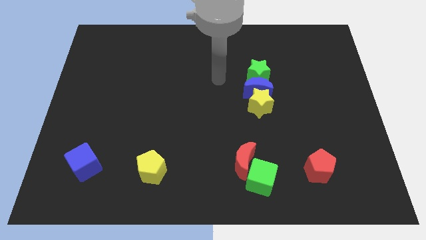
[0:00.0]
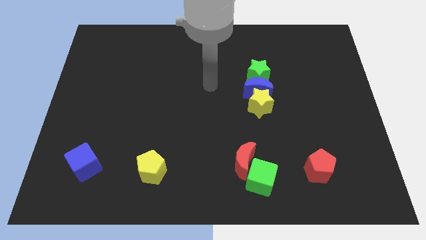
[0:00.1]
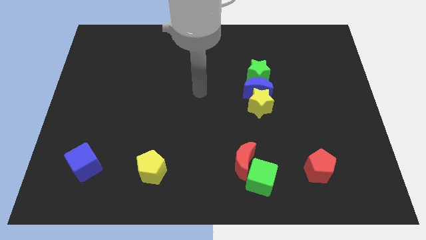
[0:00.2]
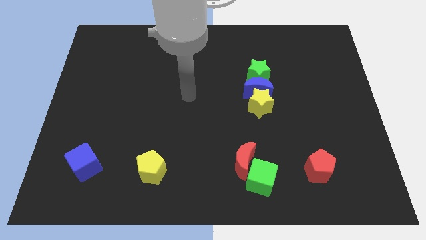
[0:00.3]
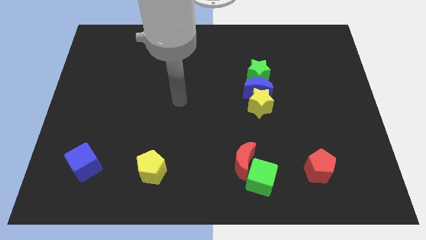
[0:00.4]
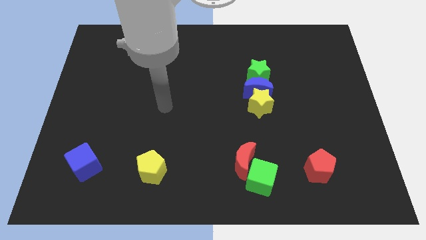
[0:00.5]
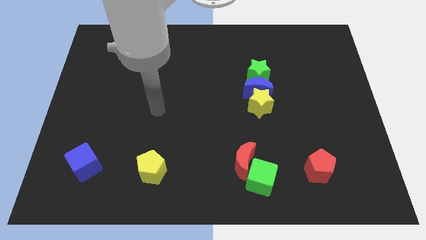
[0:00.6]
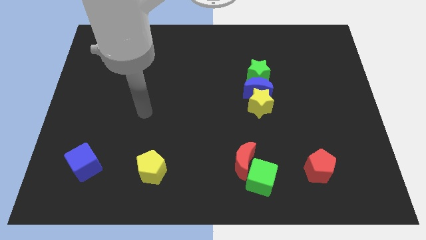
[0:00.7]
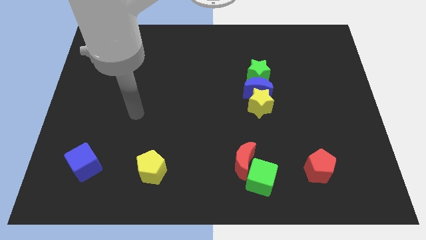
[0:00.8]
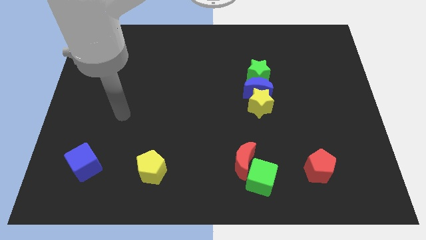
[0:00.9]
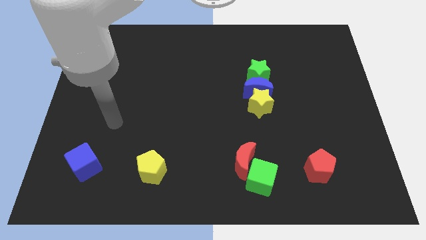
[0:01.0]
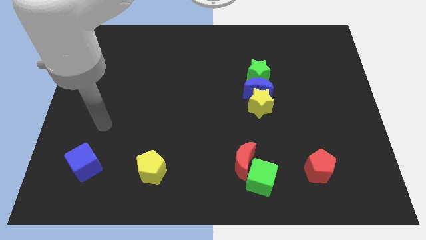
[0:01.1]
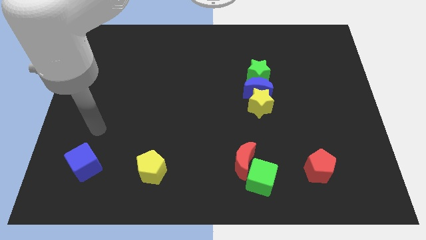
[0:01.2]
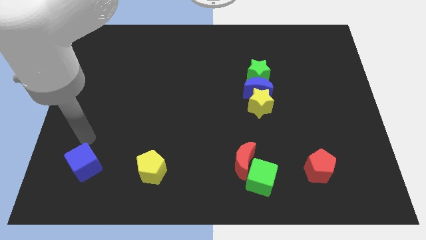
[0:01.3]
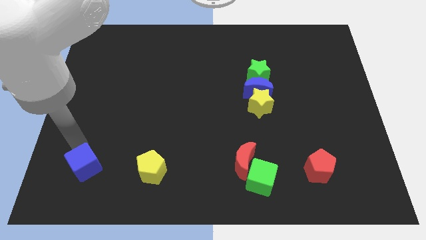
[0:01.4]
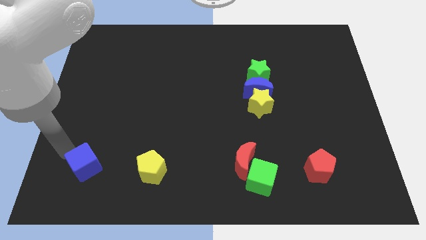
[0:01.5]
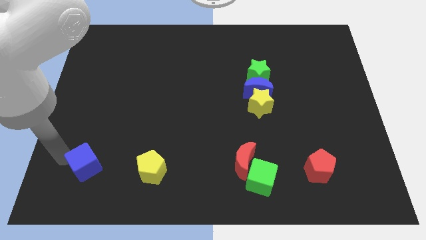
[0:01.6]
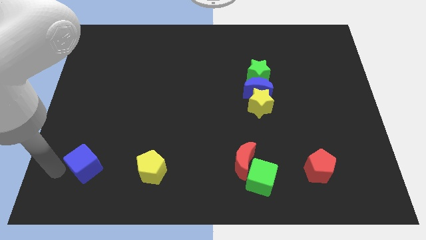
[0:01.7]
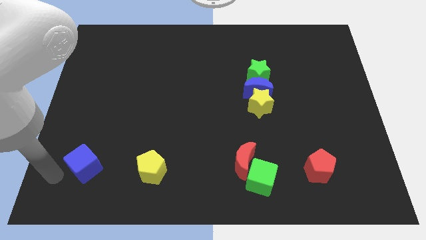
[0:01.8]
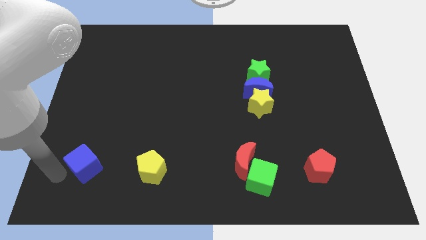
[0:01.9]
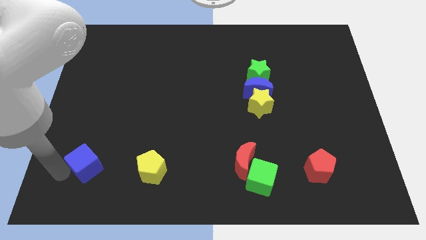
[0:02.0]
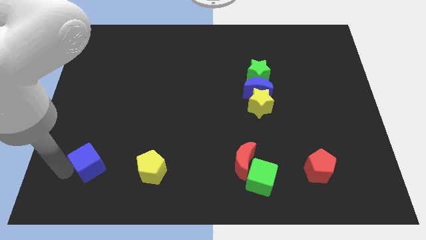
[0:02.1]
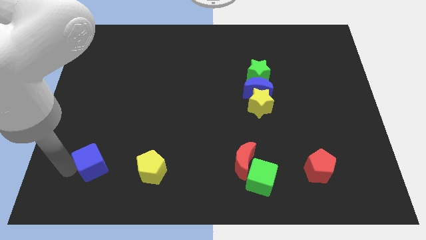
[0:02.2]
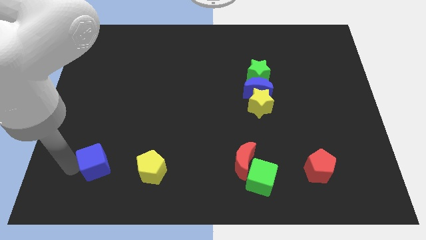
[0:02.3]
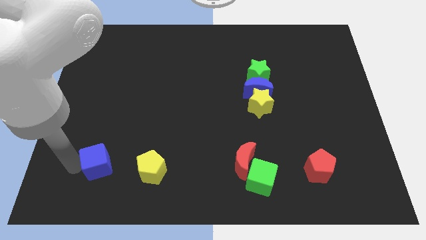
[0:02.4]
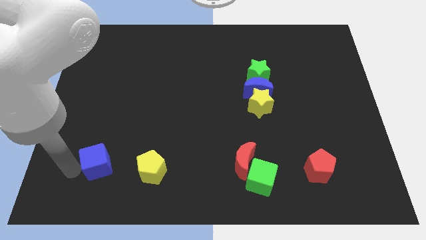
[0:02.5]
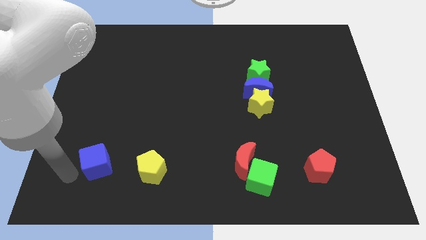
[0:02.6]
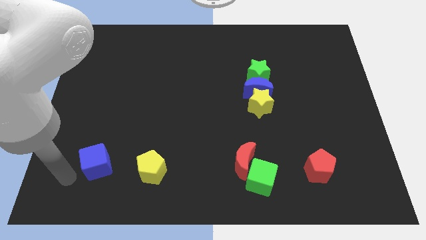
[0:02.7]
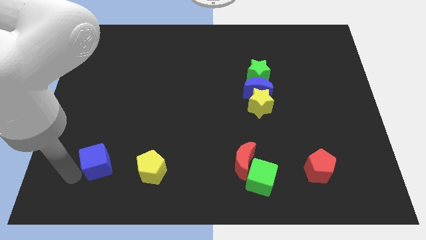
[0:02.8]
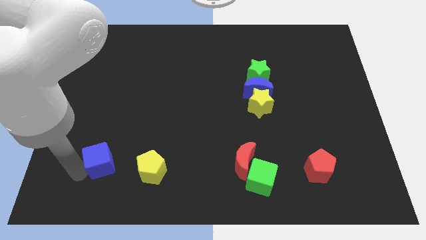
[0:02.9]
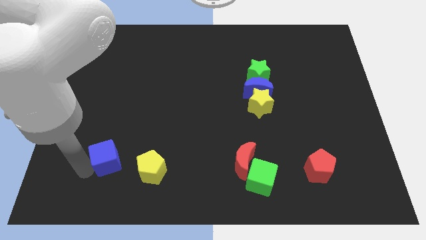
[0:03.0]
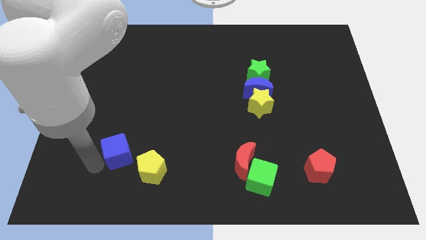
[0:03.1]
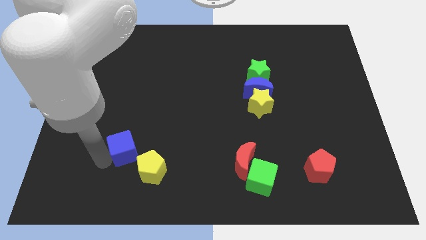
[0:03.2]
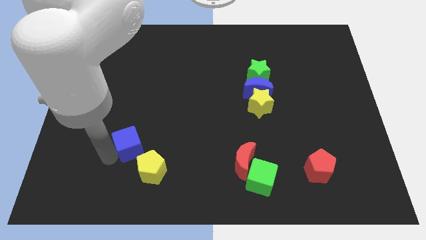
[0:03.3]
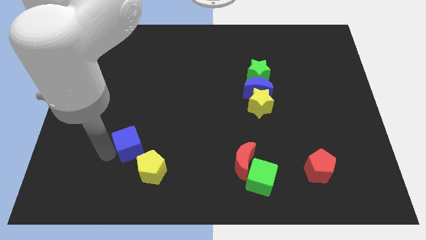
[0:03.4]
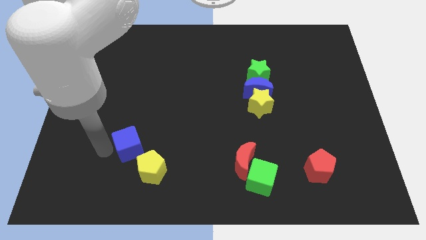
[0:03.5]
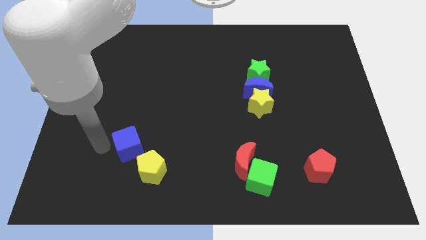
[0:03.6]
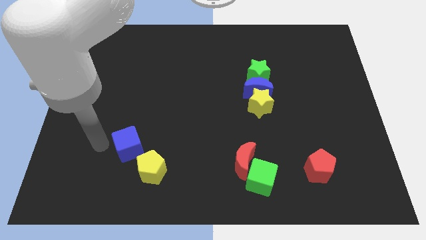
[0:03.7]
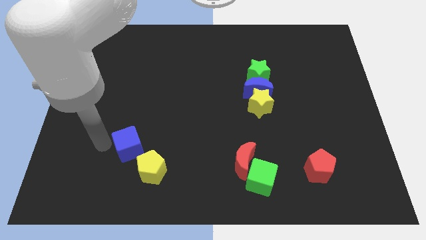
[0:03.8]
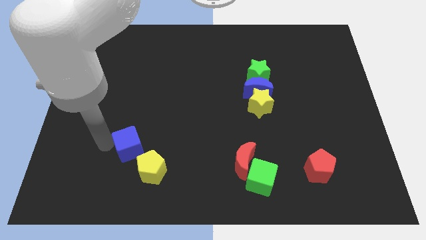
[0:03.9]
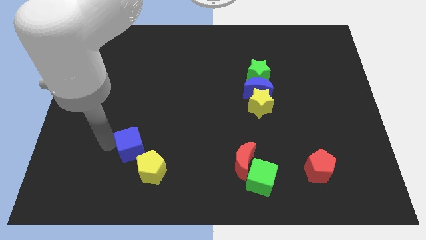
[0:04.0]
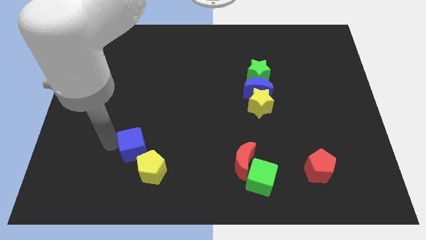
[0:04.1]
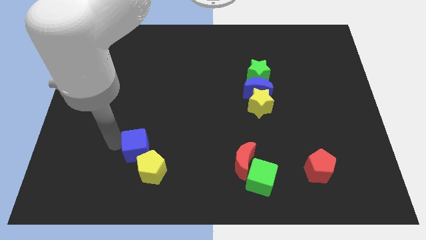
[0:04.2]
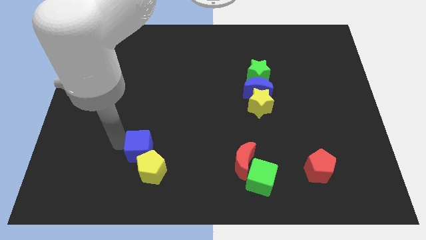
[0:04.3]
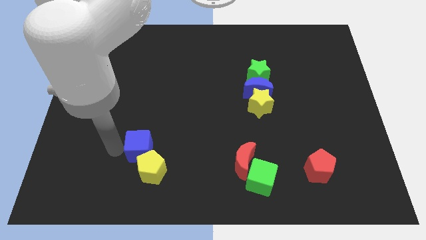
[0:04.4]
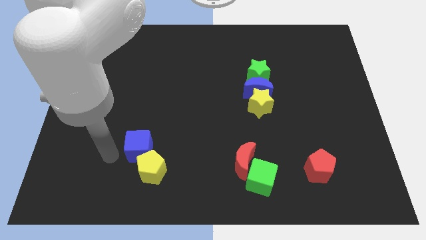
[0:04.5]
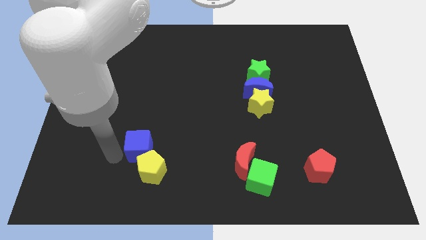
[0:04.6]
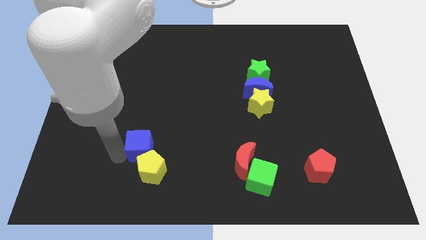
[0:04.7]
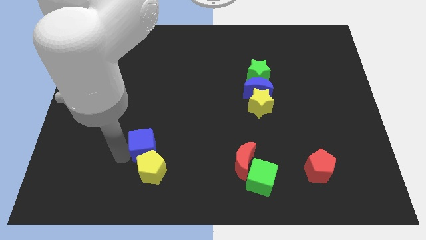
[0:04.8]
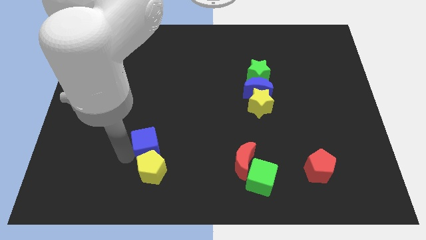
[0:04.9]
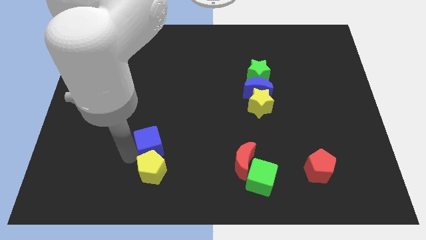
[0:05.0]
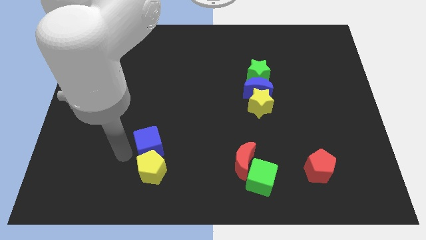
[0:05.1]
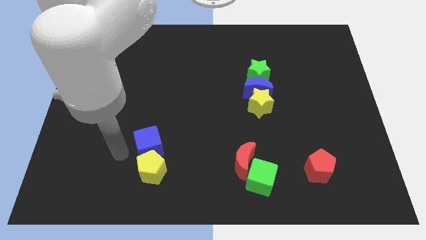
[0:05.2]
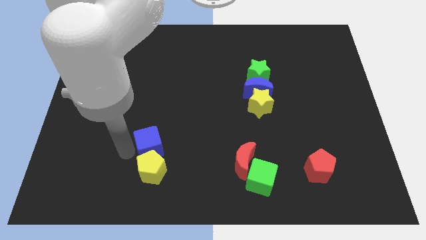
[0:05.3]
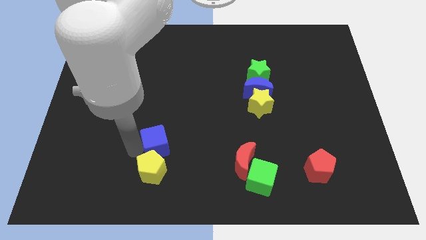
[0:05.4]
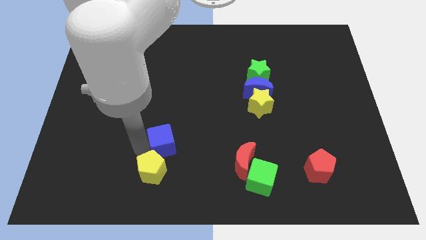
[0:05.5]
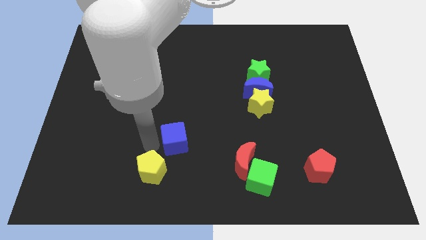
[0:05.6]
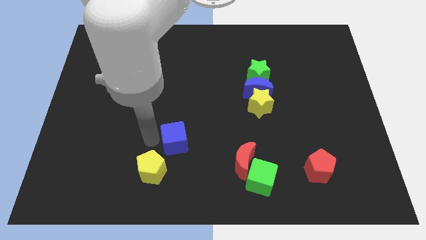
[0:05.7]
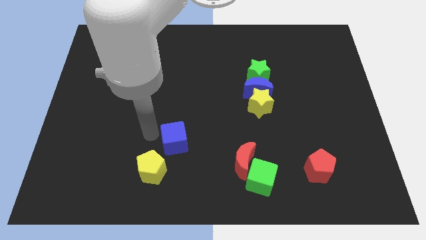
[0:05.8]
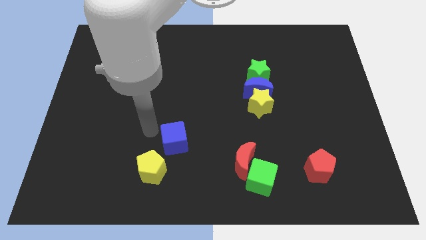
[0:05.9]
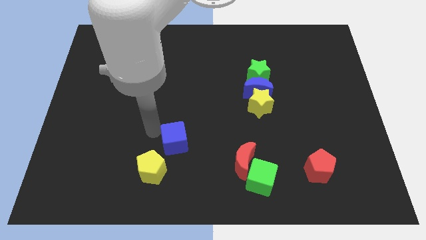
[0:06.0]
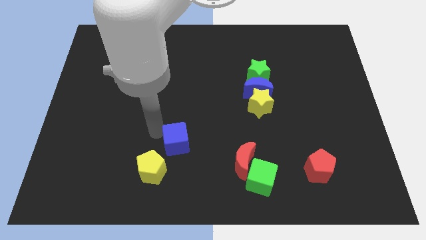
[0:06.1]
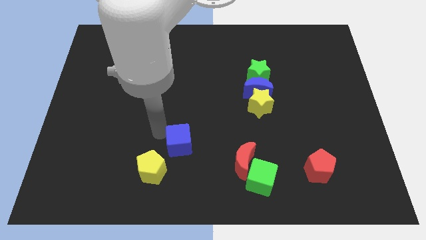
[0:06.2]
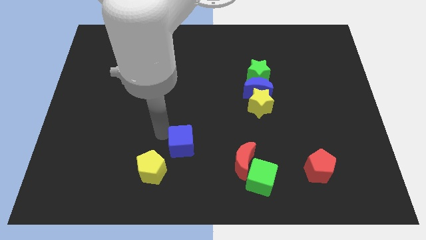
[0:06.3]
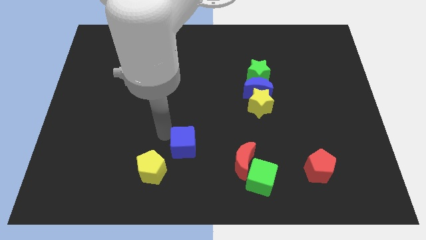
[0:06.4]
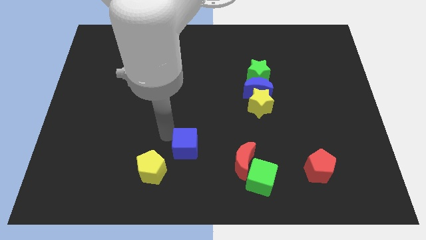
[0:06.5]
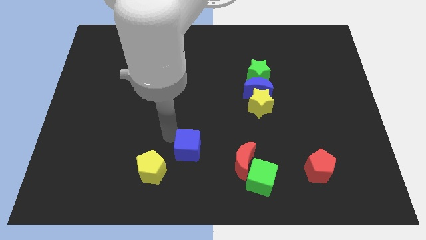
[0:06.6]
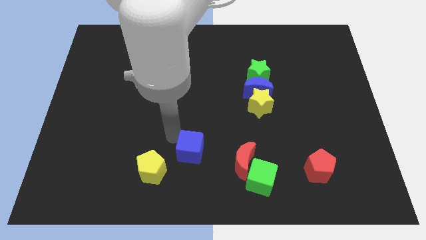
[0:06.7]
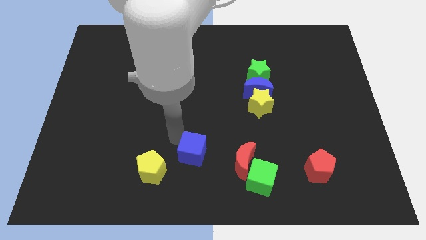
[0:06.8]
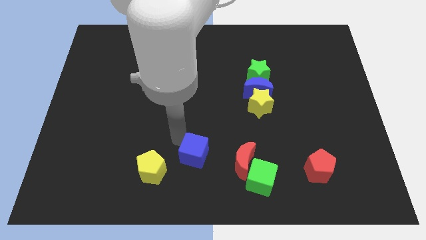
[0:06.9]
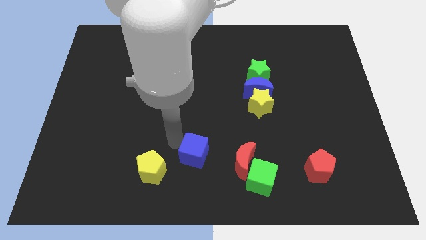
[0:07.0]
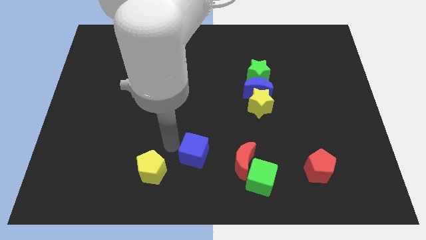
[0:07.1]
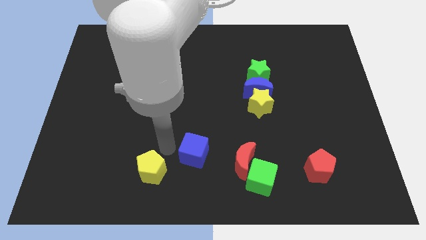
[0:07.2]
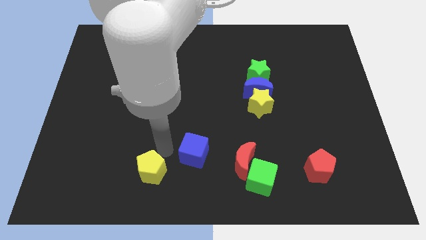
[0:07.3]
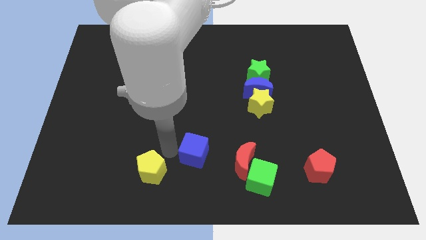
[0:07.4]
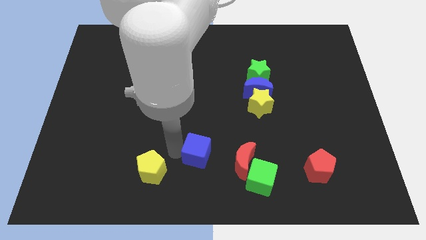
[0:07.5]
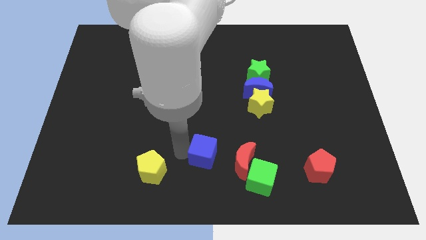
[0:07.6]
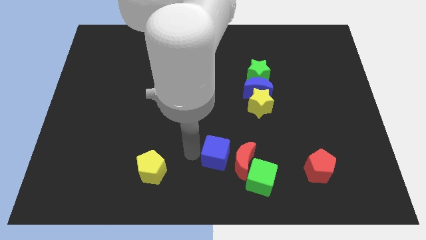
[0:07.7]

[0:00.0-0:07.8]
put the blue cube to the red moon
